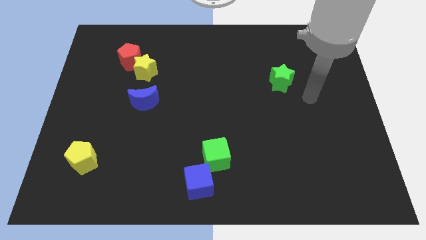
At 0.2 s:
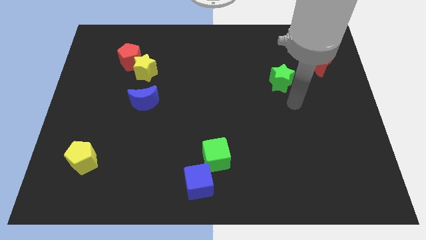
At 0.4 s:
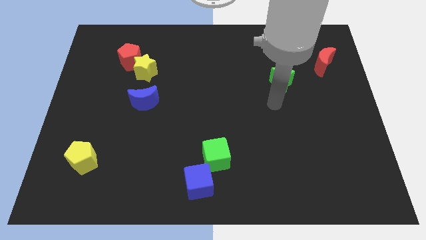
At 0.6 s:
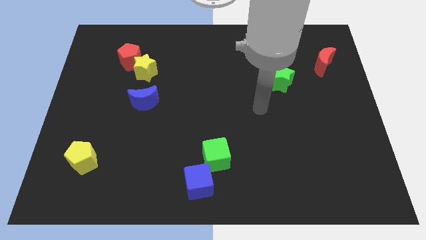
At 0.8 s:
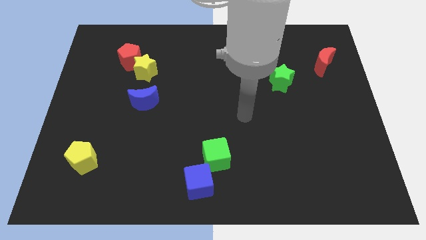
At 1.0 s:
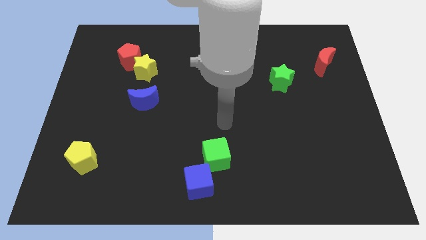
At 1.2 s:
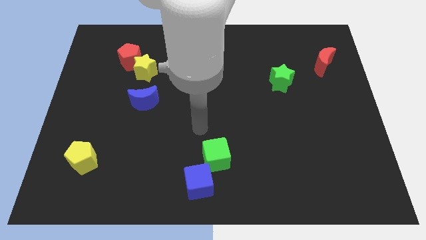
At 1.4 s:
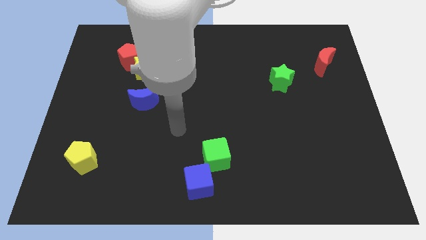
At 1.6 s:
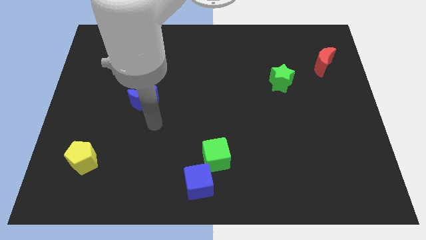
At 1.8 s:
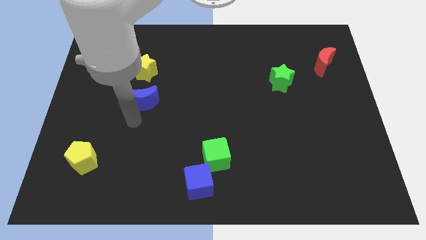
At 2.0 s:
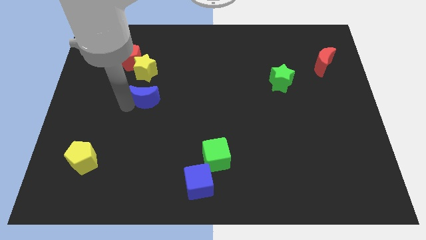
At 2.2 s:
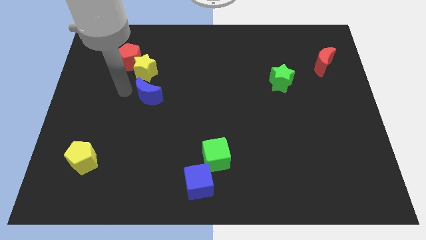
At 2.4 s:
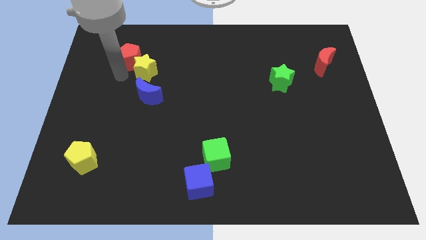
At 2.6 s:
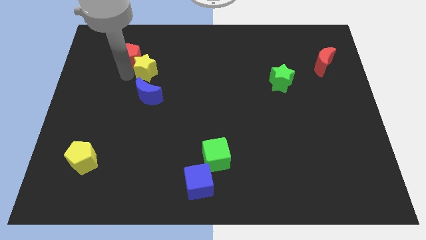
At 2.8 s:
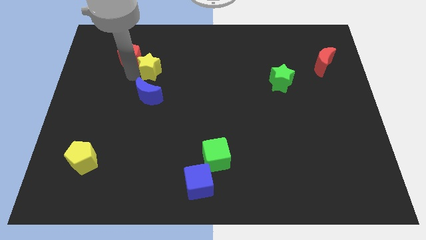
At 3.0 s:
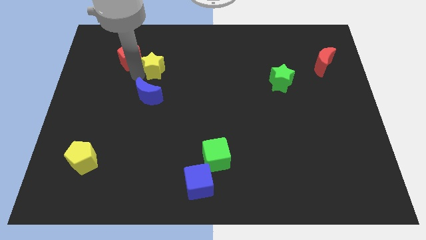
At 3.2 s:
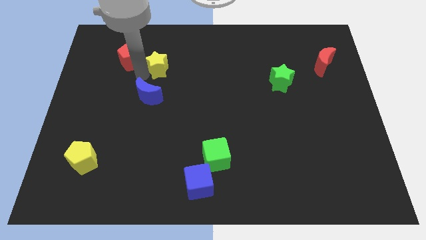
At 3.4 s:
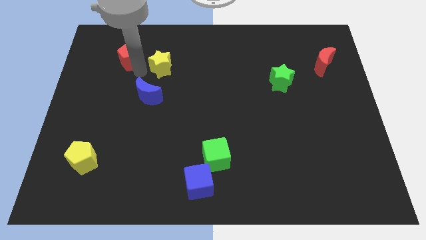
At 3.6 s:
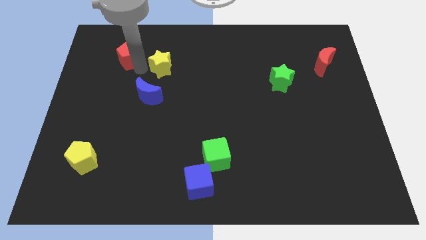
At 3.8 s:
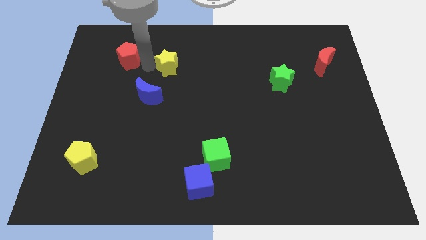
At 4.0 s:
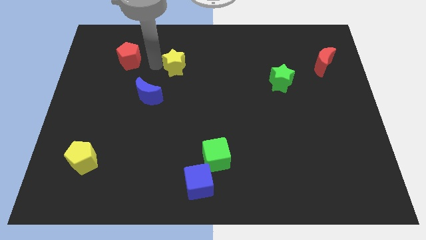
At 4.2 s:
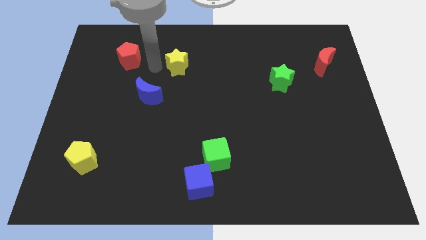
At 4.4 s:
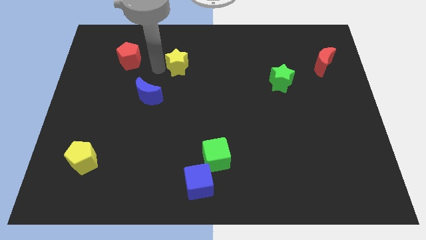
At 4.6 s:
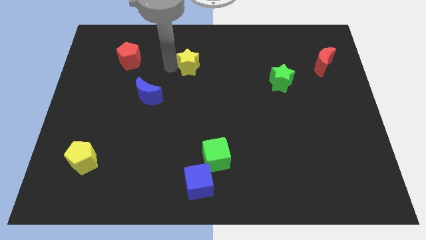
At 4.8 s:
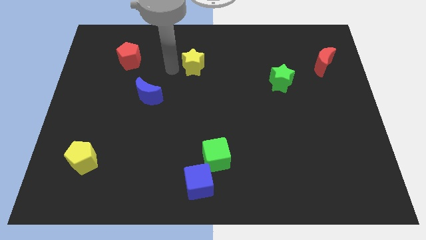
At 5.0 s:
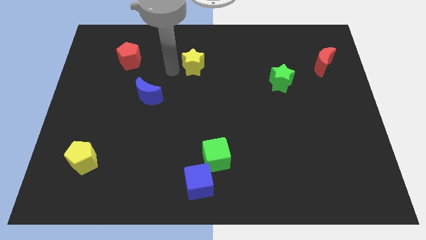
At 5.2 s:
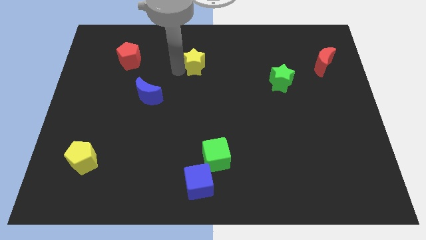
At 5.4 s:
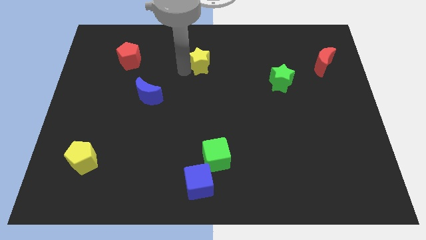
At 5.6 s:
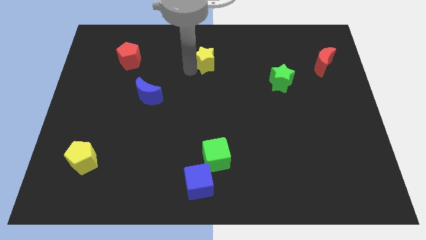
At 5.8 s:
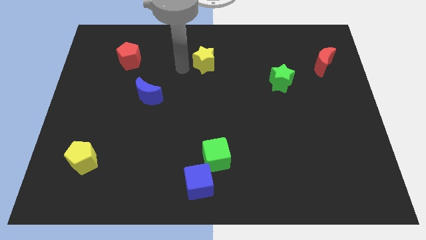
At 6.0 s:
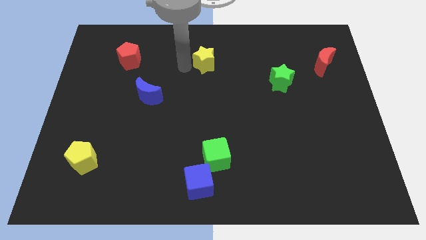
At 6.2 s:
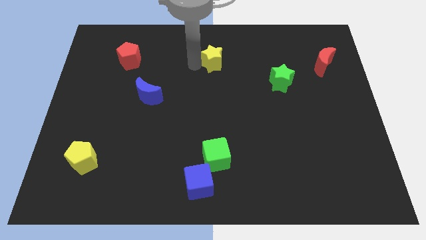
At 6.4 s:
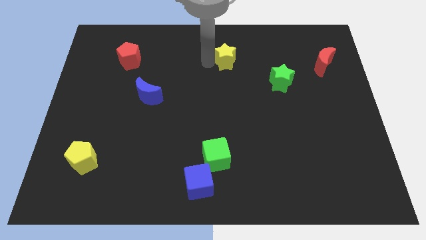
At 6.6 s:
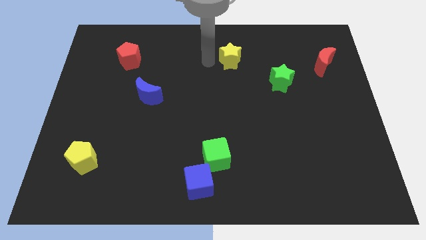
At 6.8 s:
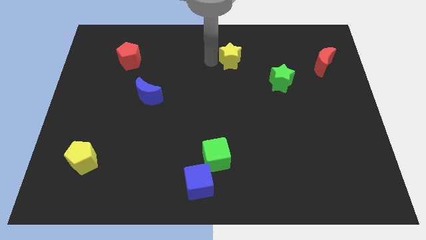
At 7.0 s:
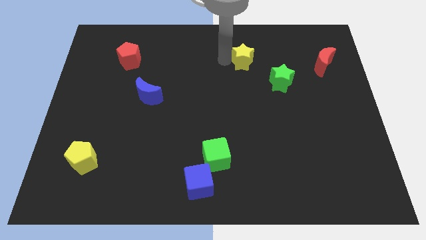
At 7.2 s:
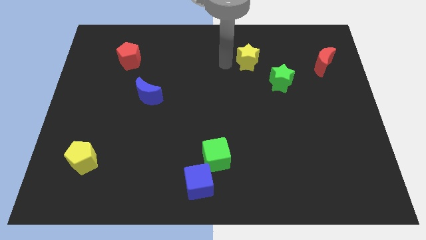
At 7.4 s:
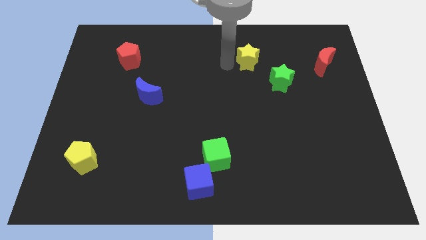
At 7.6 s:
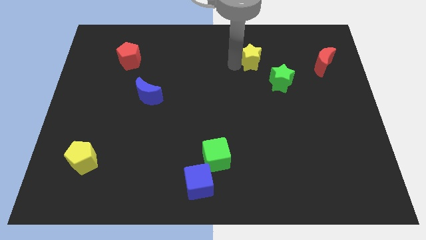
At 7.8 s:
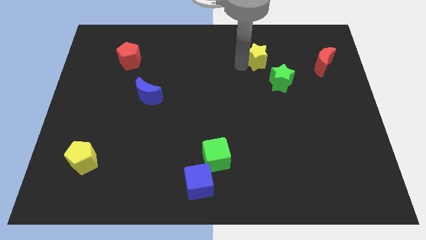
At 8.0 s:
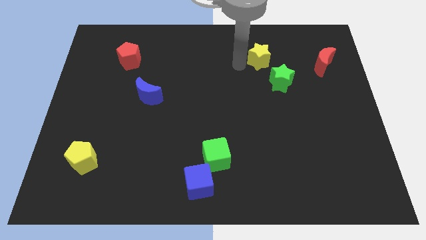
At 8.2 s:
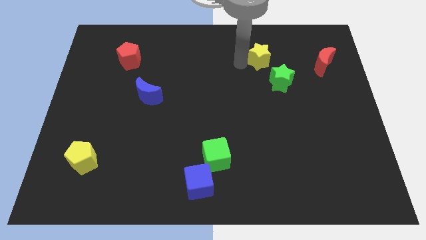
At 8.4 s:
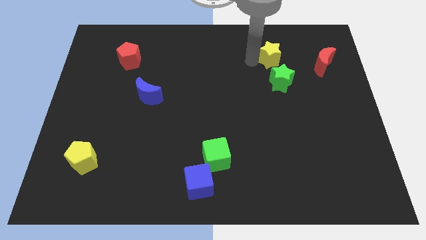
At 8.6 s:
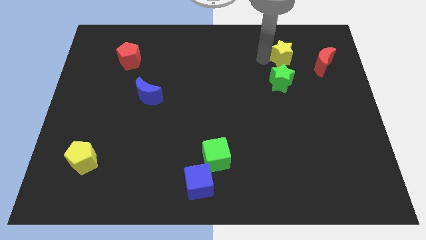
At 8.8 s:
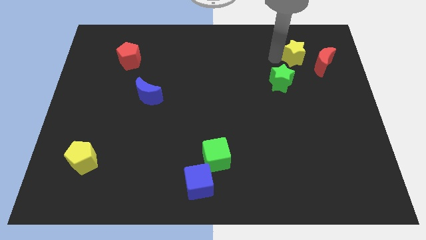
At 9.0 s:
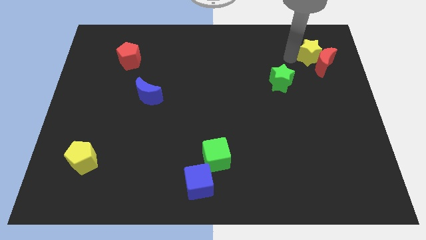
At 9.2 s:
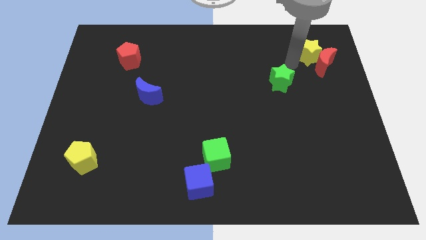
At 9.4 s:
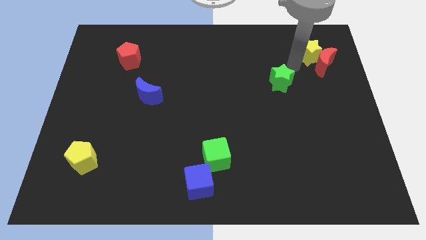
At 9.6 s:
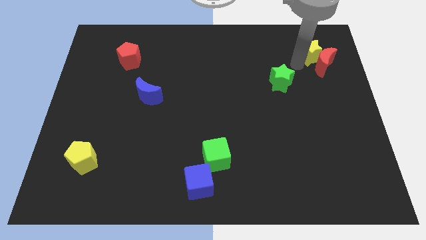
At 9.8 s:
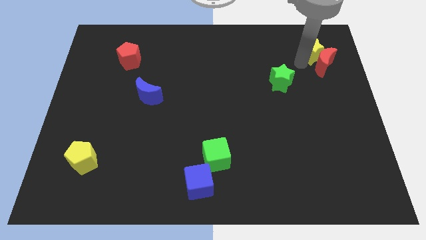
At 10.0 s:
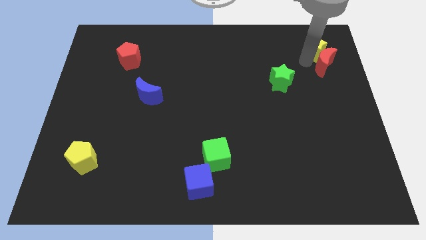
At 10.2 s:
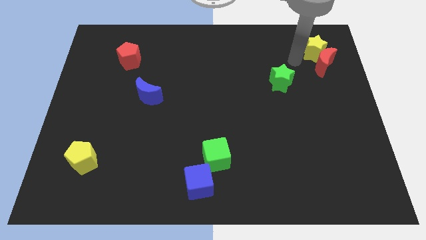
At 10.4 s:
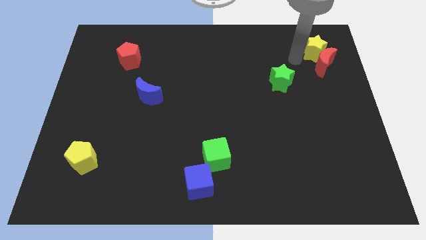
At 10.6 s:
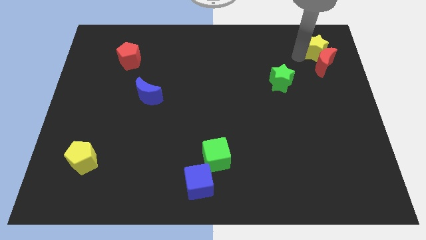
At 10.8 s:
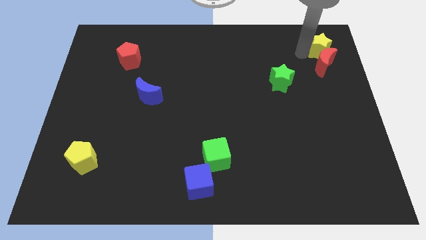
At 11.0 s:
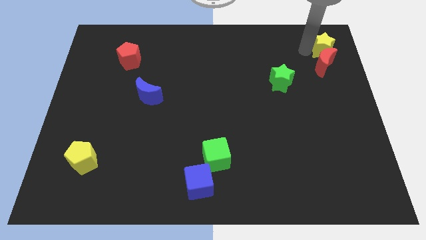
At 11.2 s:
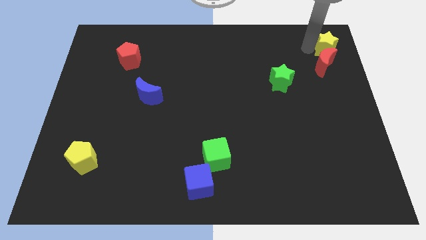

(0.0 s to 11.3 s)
push the yellow star to the upper right corner

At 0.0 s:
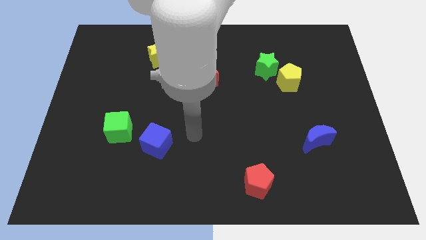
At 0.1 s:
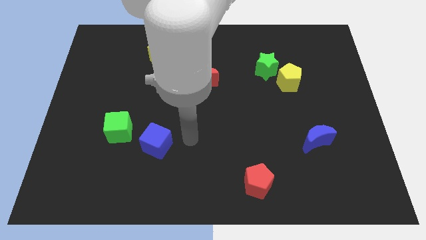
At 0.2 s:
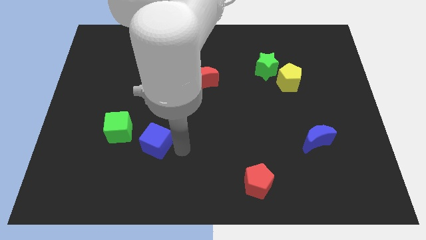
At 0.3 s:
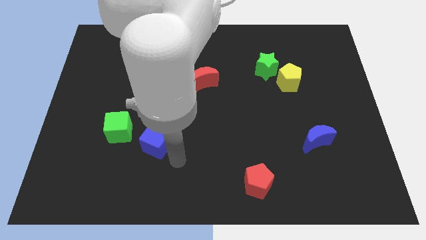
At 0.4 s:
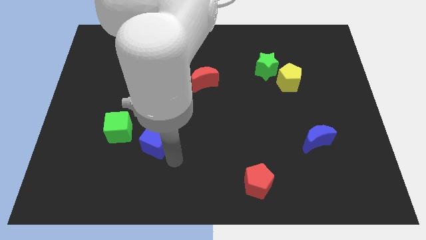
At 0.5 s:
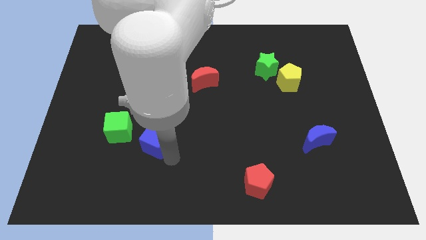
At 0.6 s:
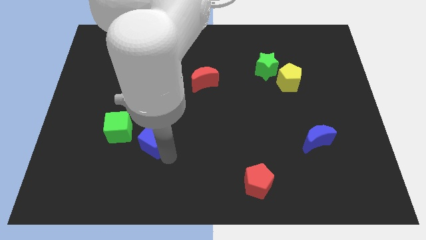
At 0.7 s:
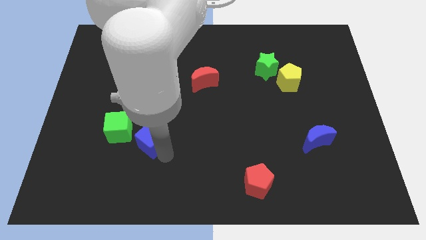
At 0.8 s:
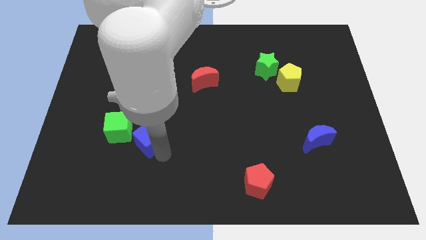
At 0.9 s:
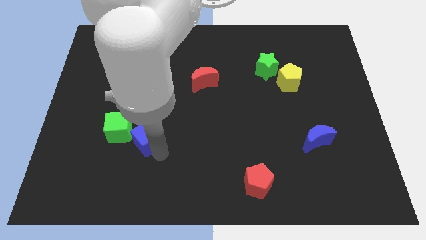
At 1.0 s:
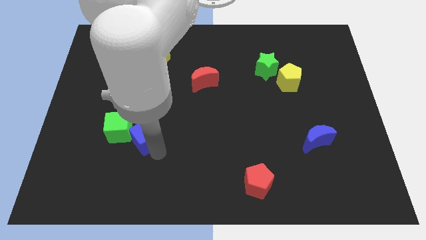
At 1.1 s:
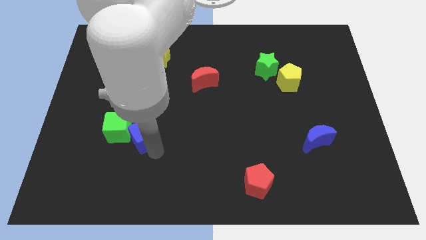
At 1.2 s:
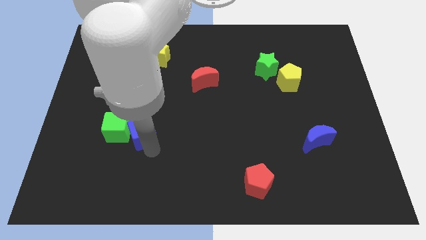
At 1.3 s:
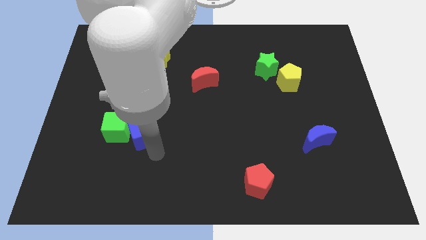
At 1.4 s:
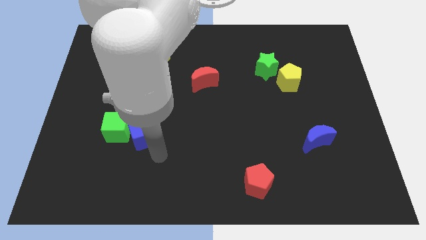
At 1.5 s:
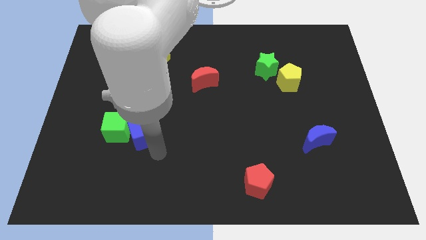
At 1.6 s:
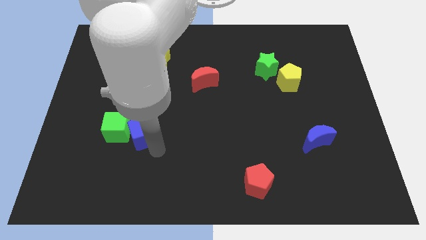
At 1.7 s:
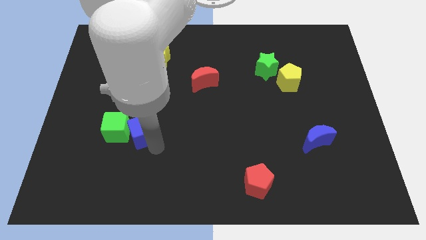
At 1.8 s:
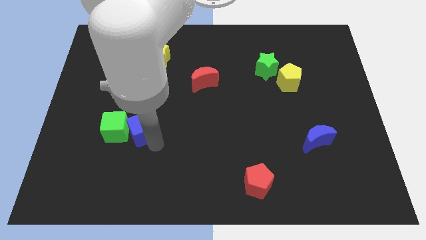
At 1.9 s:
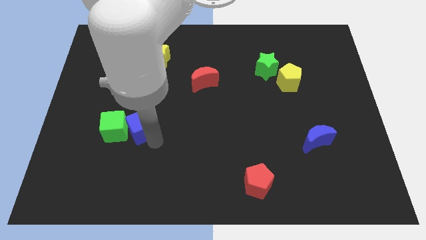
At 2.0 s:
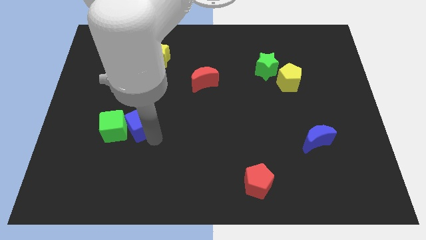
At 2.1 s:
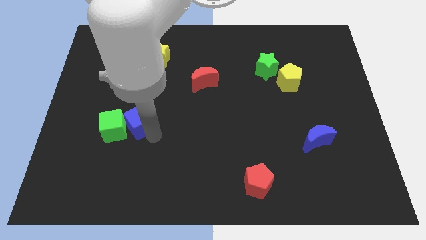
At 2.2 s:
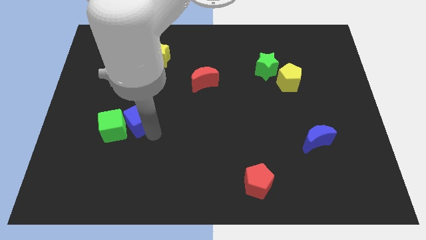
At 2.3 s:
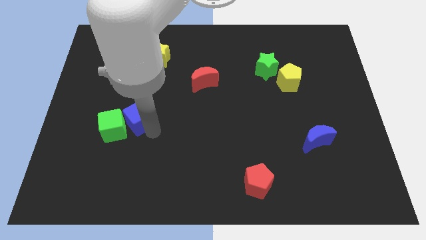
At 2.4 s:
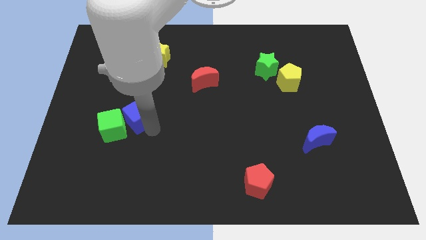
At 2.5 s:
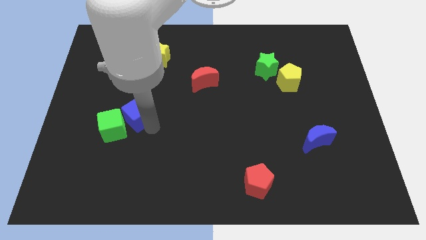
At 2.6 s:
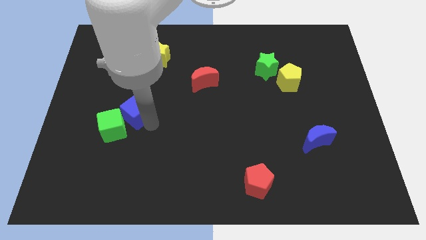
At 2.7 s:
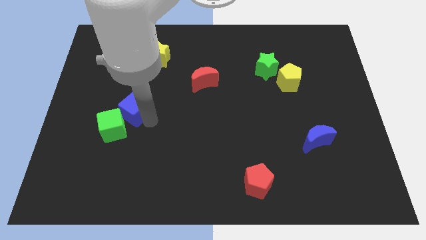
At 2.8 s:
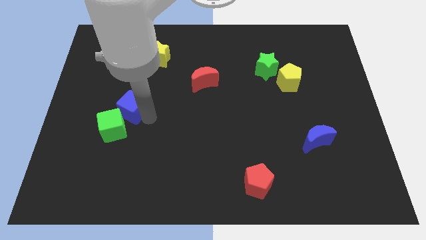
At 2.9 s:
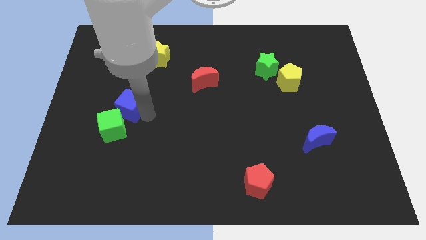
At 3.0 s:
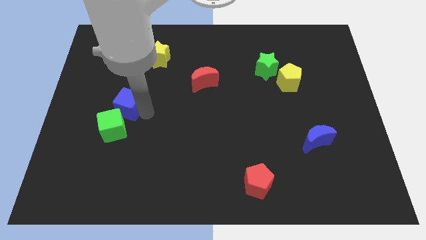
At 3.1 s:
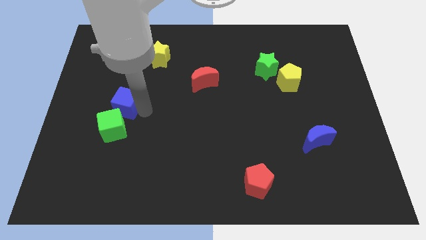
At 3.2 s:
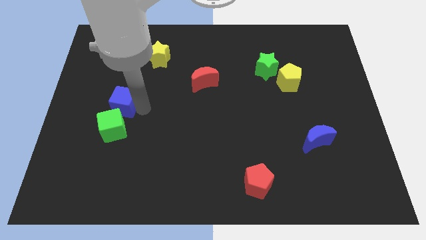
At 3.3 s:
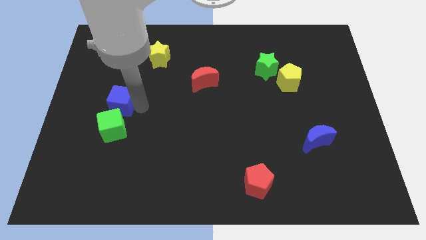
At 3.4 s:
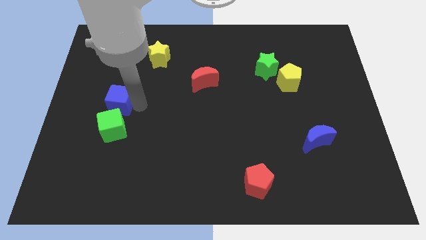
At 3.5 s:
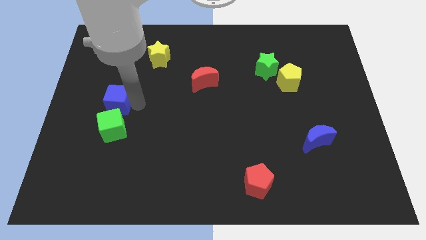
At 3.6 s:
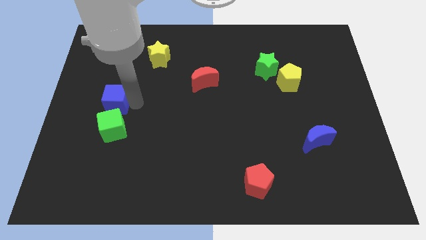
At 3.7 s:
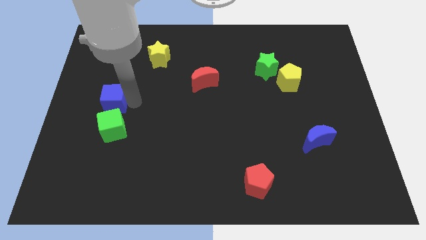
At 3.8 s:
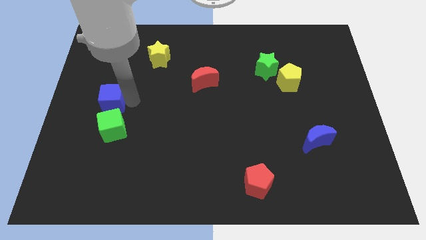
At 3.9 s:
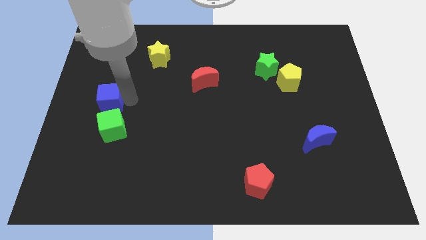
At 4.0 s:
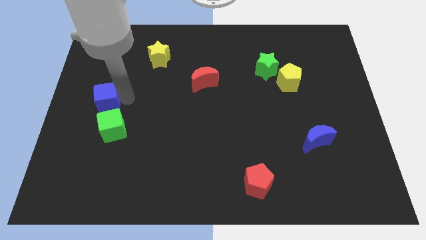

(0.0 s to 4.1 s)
slide the blue cube to the center left
